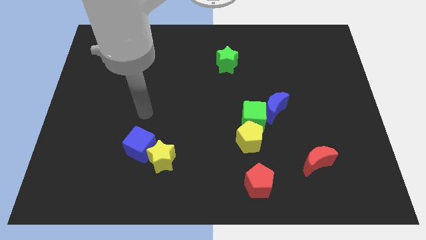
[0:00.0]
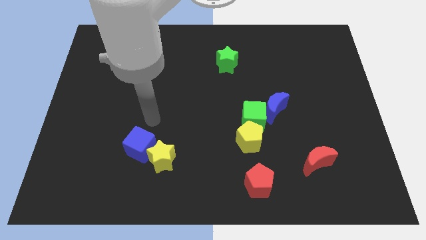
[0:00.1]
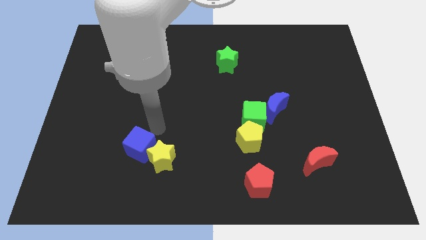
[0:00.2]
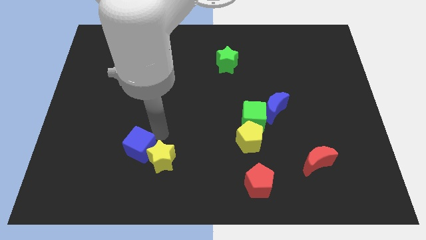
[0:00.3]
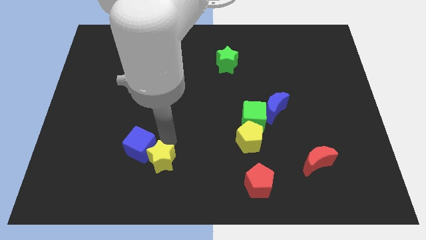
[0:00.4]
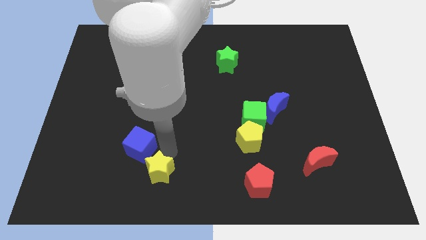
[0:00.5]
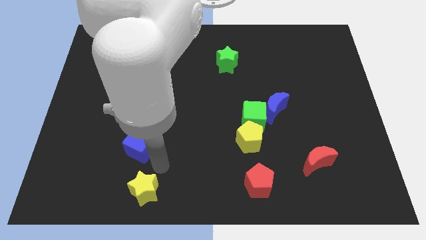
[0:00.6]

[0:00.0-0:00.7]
separate the blue cube from the yellow star

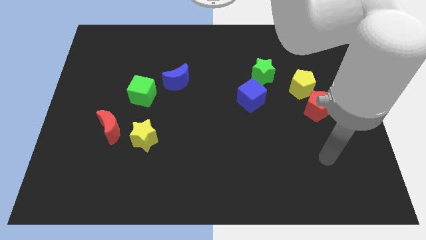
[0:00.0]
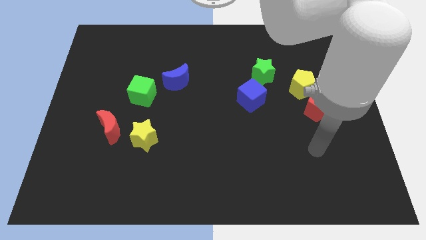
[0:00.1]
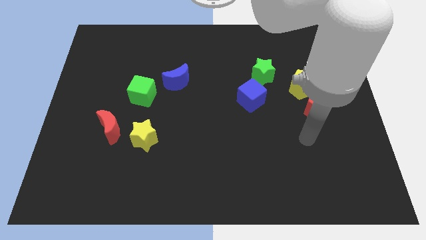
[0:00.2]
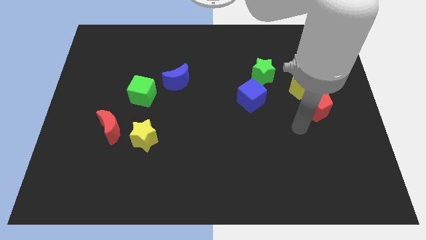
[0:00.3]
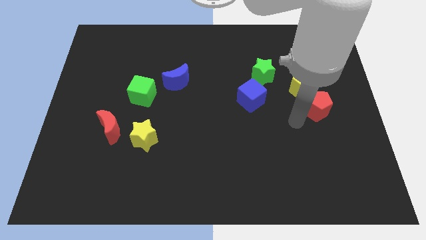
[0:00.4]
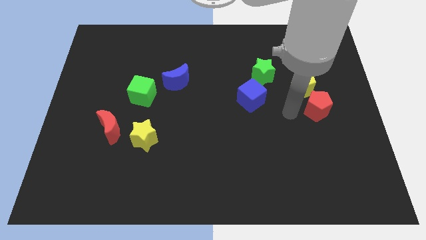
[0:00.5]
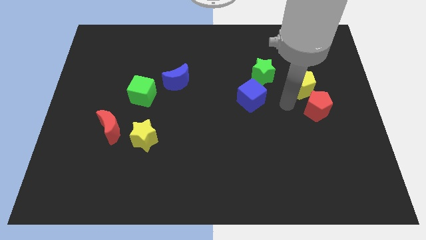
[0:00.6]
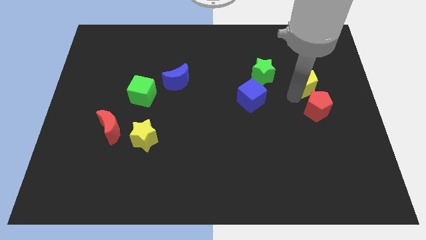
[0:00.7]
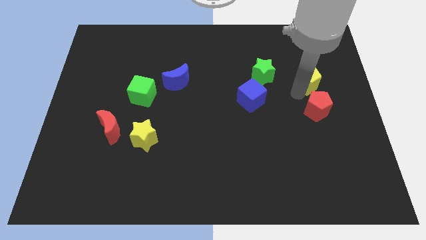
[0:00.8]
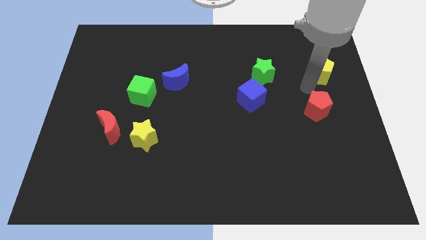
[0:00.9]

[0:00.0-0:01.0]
move the red pentagon away from the yellow pentagon

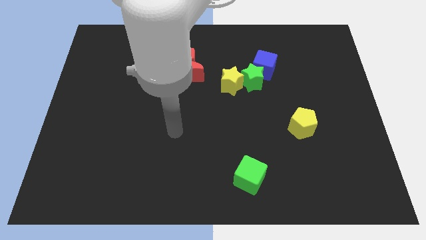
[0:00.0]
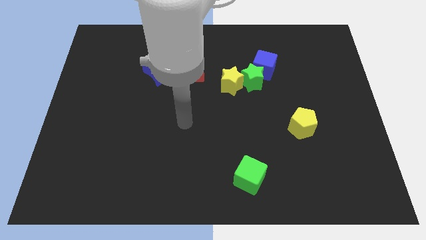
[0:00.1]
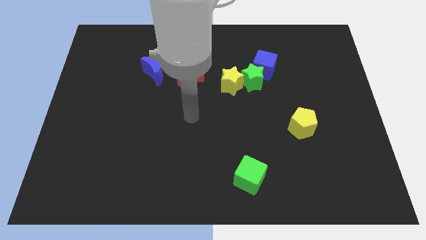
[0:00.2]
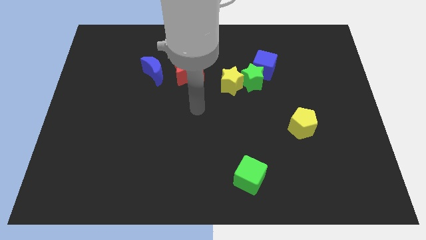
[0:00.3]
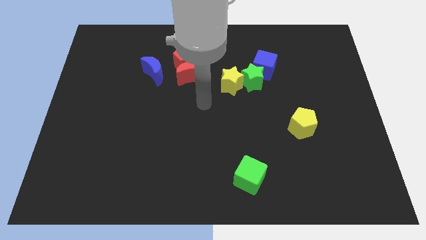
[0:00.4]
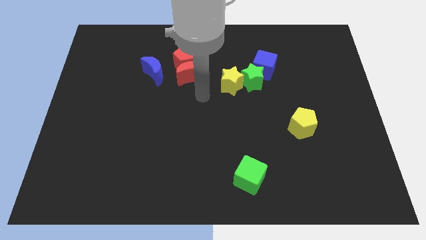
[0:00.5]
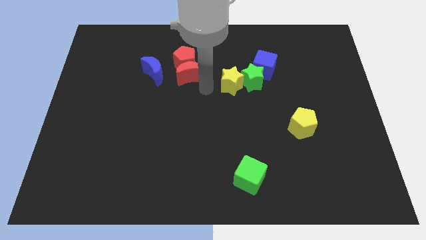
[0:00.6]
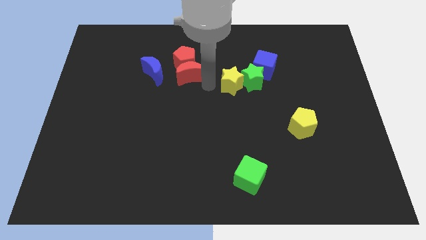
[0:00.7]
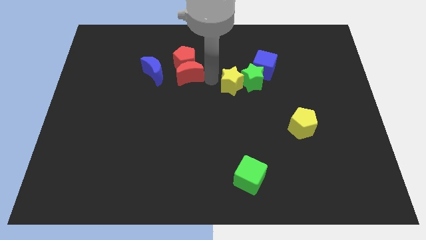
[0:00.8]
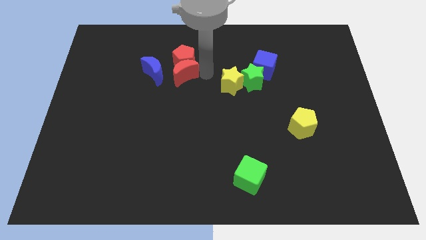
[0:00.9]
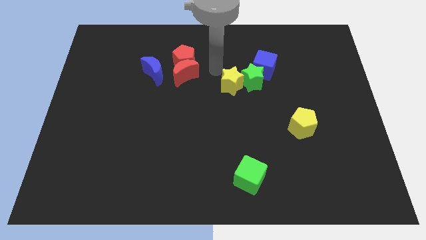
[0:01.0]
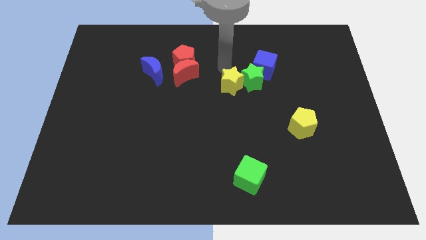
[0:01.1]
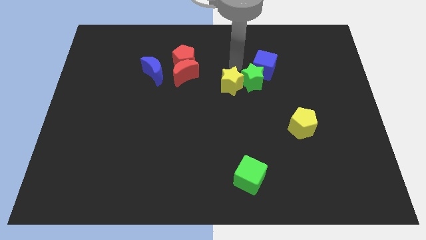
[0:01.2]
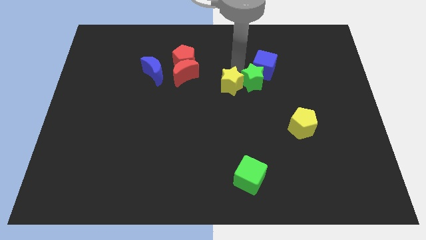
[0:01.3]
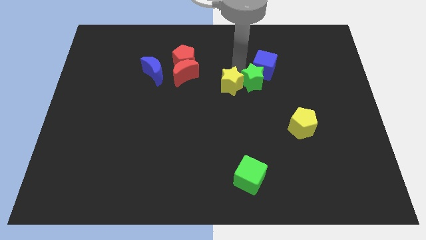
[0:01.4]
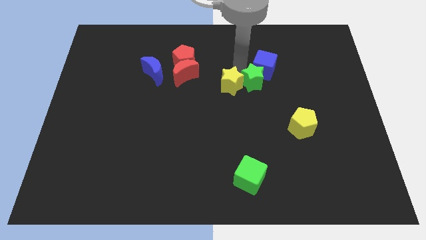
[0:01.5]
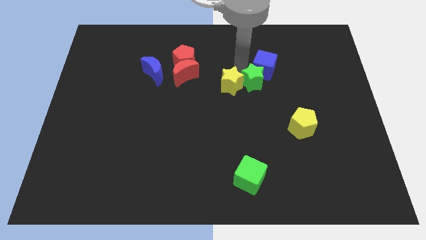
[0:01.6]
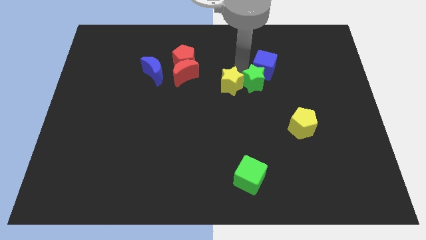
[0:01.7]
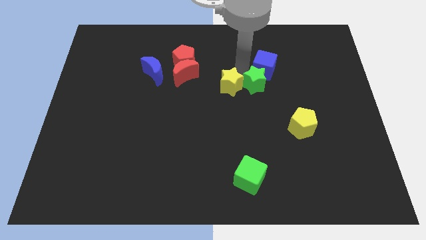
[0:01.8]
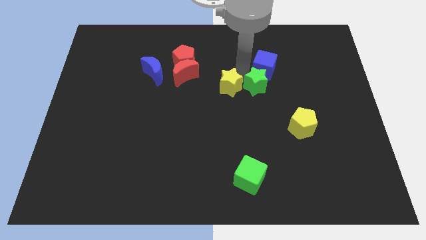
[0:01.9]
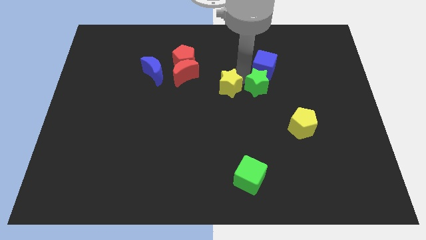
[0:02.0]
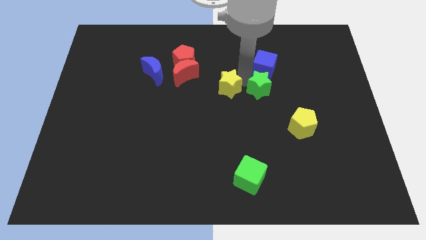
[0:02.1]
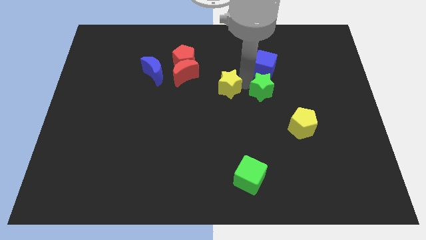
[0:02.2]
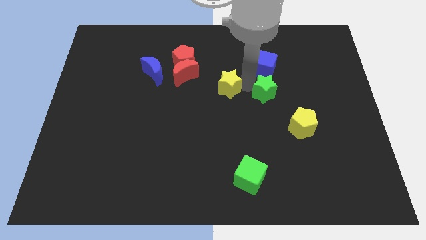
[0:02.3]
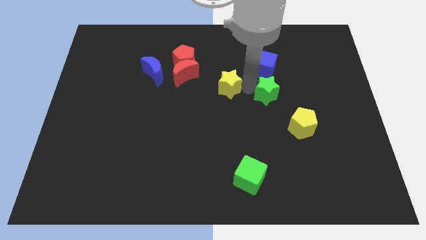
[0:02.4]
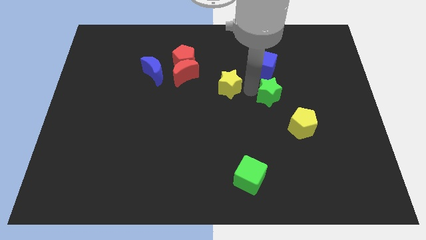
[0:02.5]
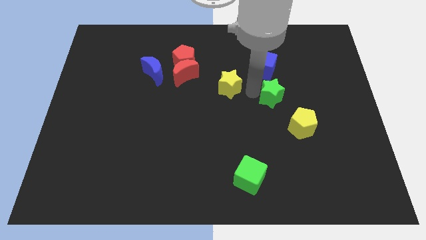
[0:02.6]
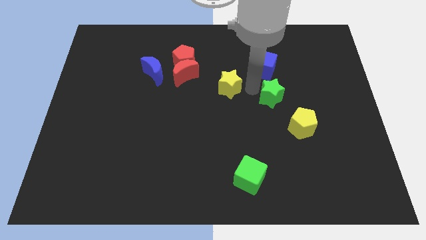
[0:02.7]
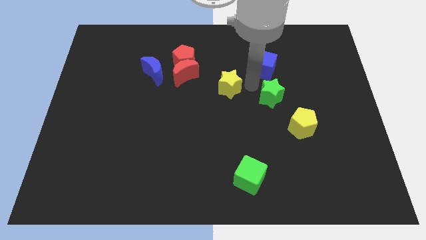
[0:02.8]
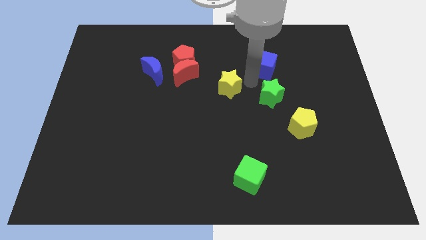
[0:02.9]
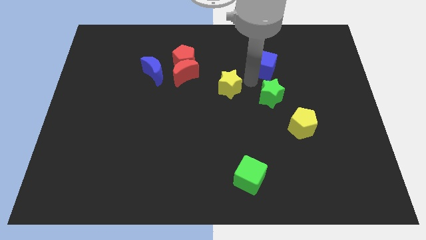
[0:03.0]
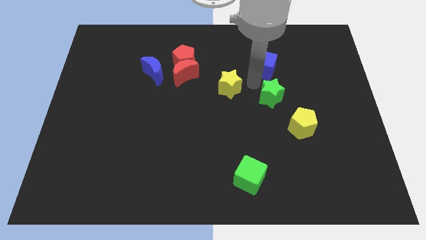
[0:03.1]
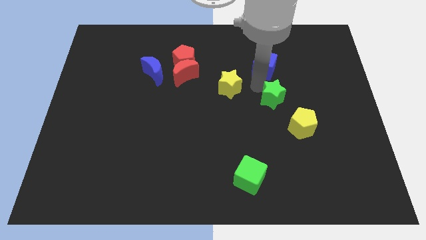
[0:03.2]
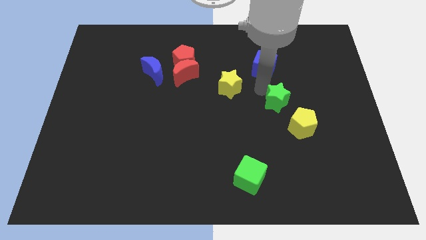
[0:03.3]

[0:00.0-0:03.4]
move the green star away from the blue cube and yellow star

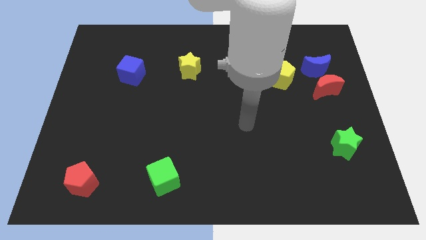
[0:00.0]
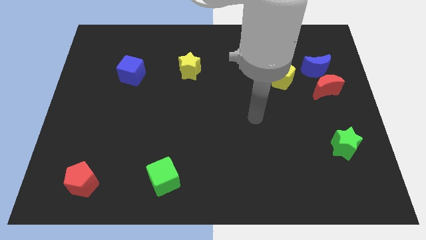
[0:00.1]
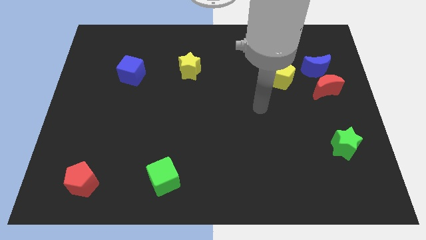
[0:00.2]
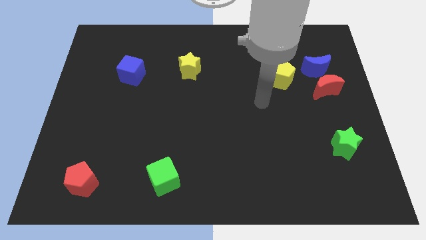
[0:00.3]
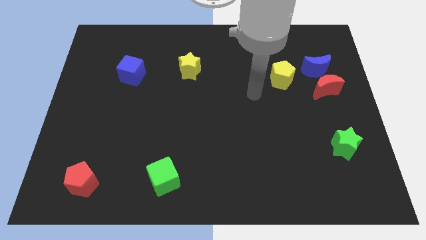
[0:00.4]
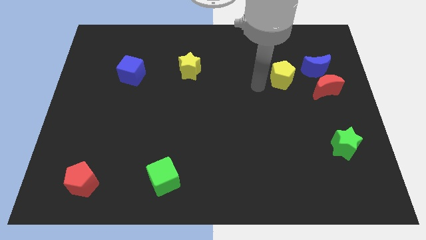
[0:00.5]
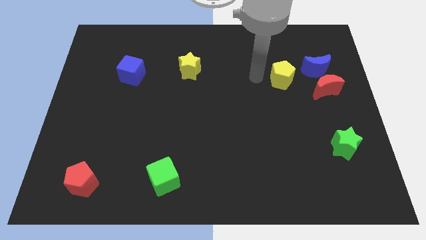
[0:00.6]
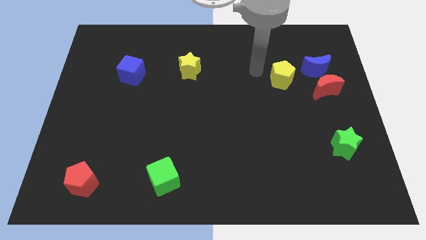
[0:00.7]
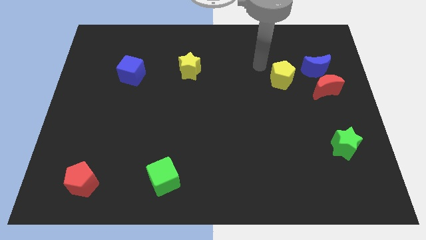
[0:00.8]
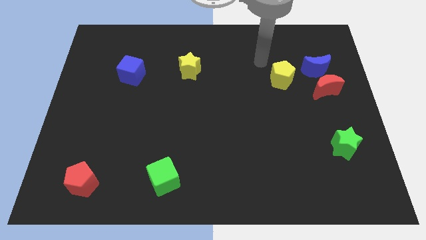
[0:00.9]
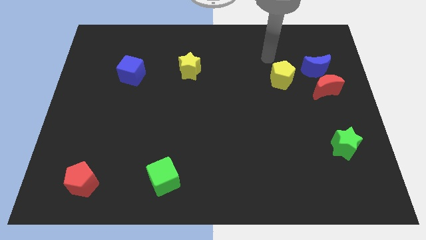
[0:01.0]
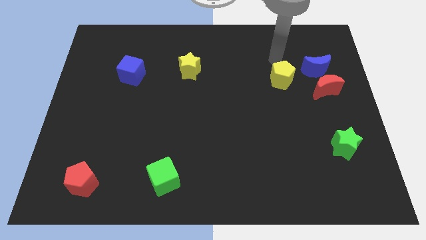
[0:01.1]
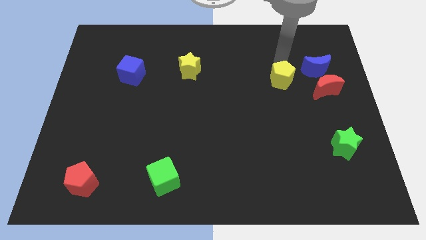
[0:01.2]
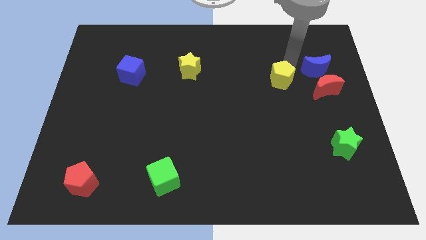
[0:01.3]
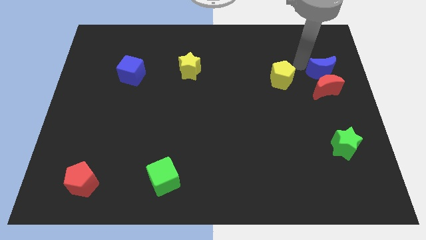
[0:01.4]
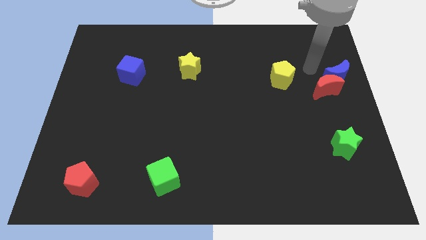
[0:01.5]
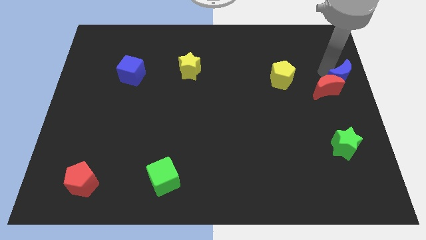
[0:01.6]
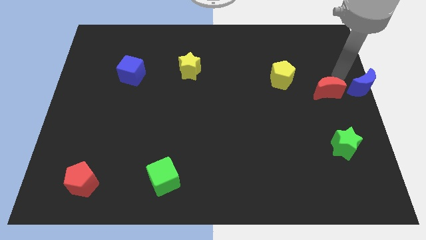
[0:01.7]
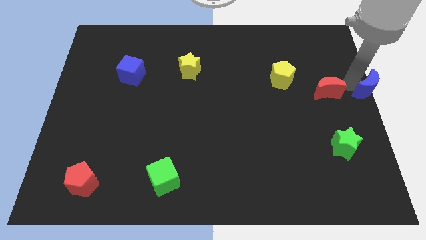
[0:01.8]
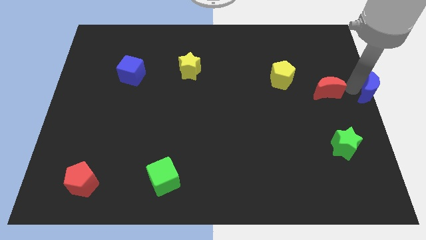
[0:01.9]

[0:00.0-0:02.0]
pull the red moon apart from the blue moon

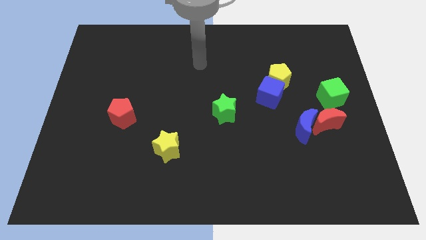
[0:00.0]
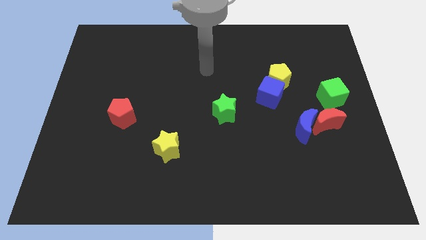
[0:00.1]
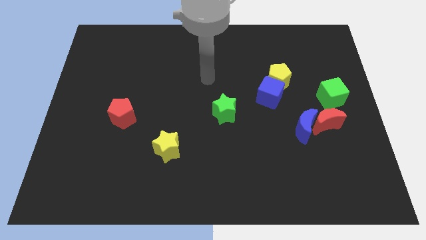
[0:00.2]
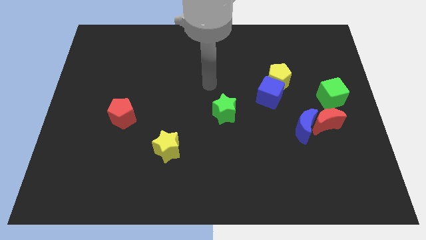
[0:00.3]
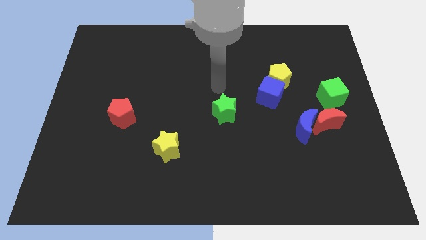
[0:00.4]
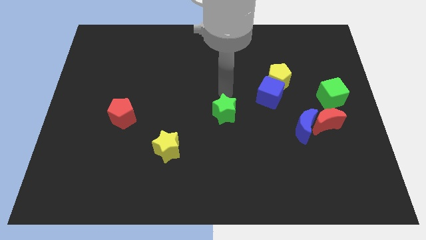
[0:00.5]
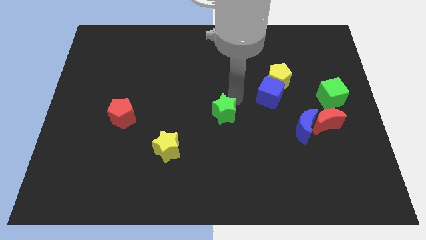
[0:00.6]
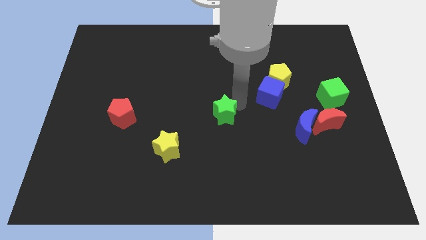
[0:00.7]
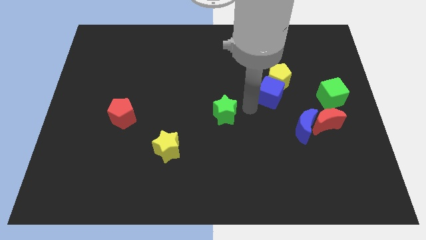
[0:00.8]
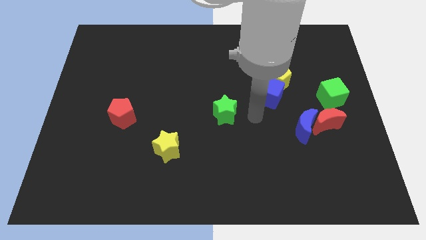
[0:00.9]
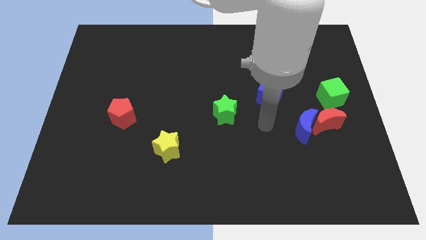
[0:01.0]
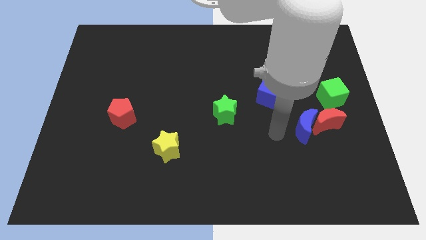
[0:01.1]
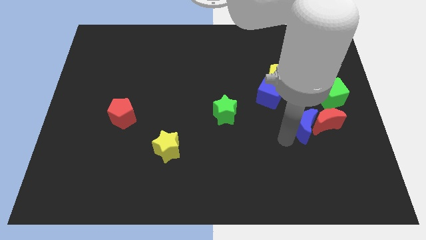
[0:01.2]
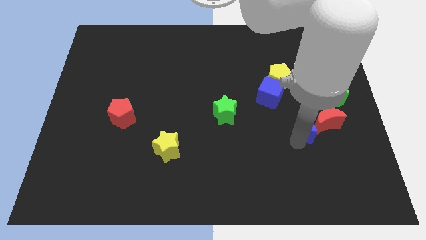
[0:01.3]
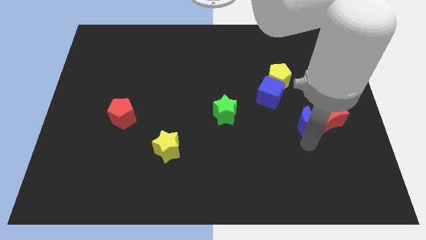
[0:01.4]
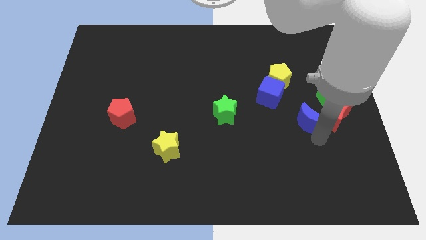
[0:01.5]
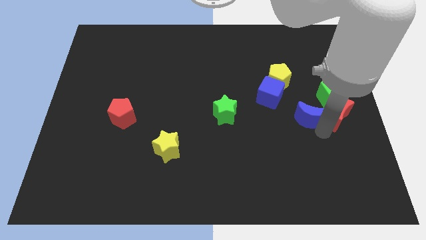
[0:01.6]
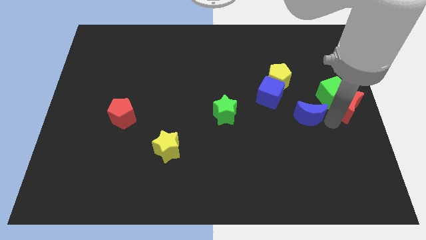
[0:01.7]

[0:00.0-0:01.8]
separate the blue moon from the red moon

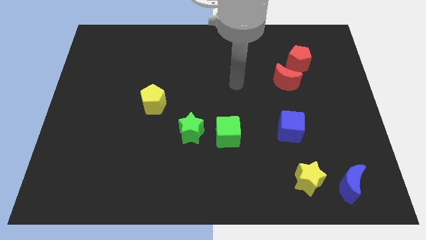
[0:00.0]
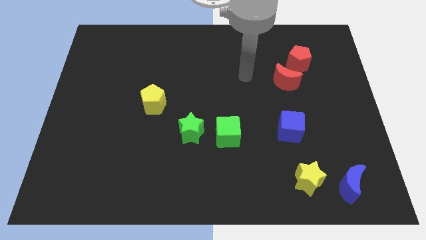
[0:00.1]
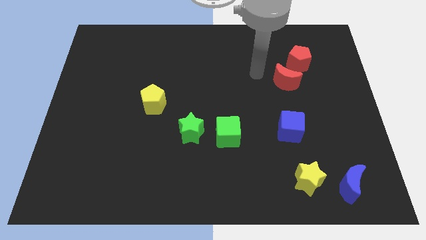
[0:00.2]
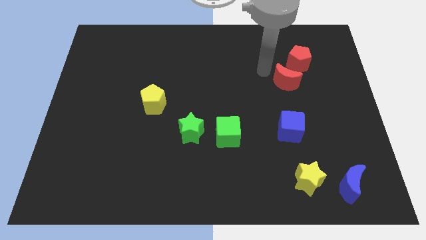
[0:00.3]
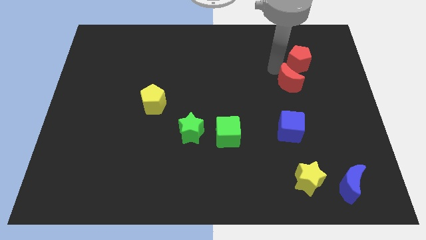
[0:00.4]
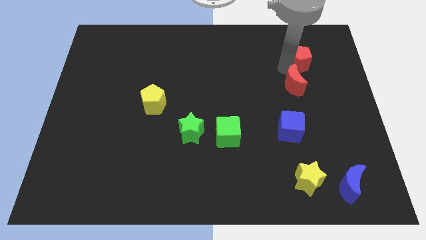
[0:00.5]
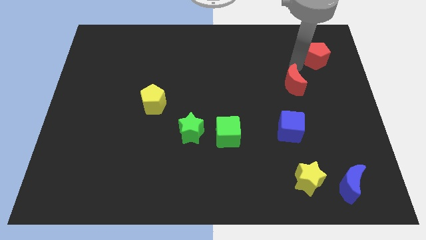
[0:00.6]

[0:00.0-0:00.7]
separate the red moon from the red pentagon
